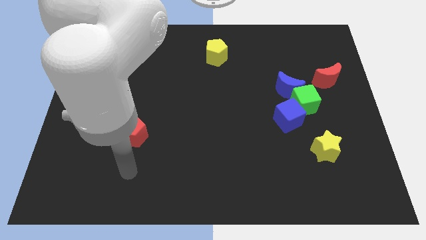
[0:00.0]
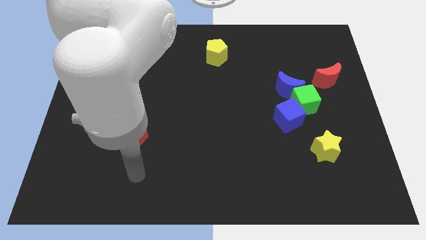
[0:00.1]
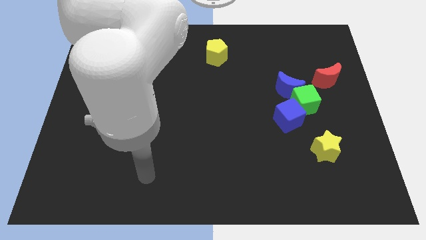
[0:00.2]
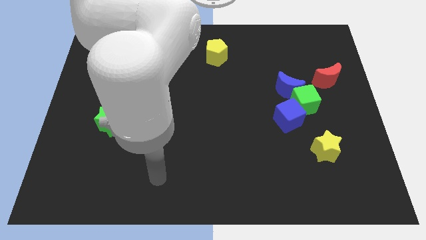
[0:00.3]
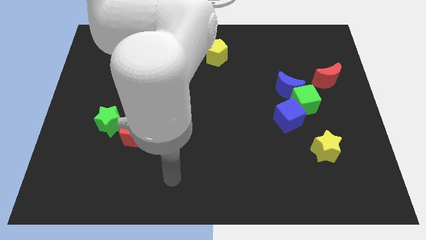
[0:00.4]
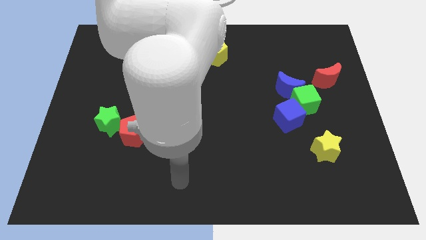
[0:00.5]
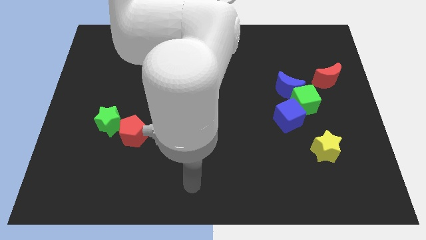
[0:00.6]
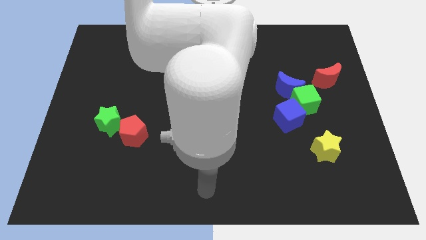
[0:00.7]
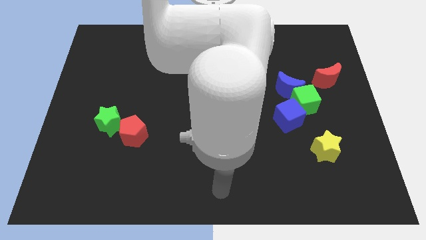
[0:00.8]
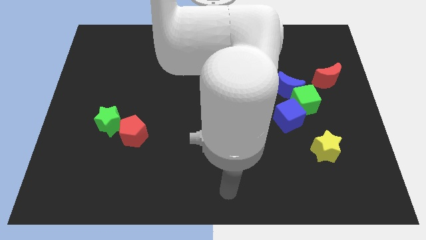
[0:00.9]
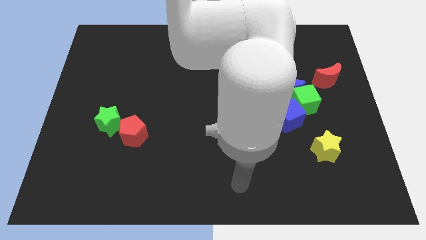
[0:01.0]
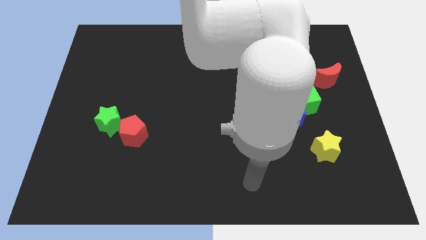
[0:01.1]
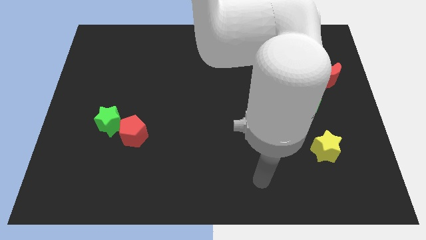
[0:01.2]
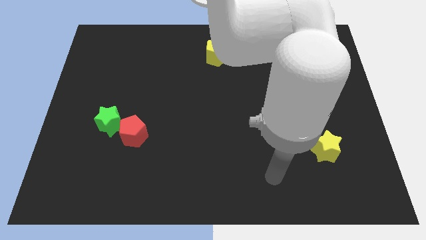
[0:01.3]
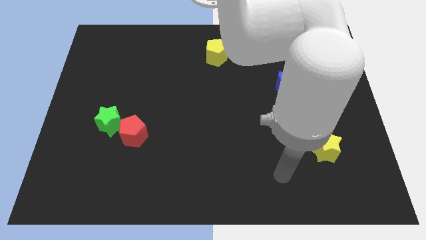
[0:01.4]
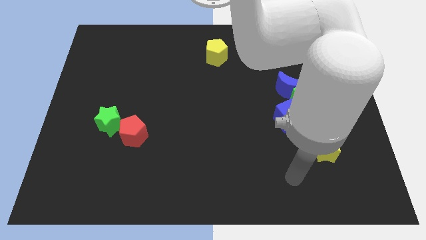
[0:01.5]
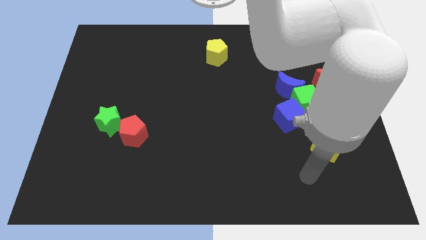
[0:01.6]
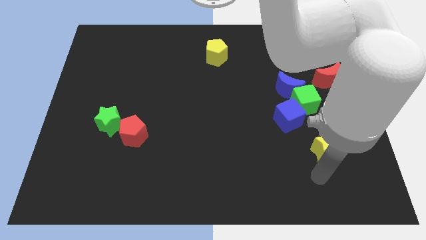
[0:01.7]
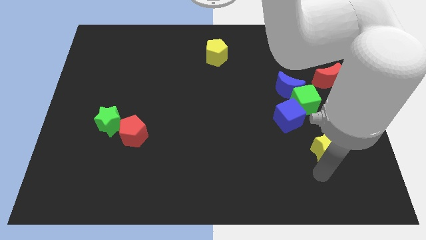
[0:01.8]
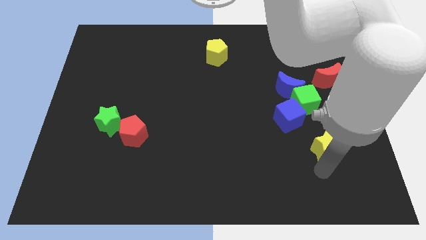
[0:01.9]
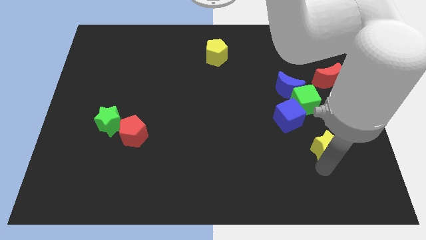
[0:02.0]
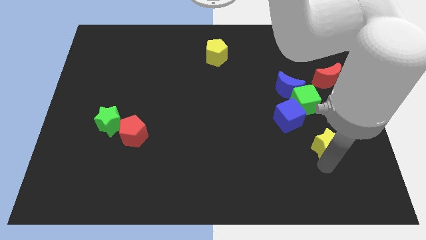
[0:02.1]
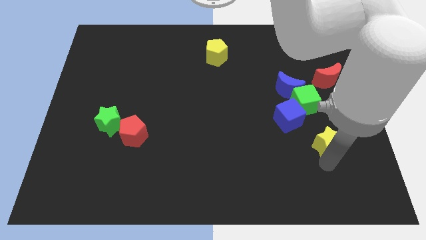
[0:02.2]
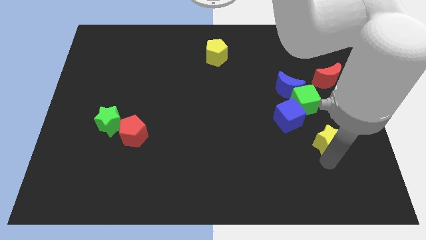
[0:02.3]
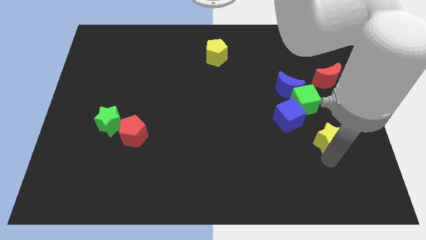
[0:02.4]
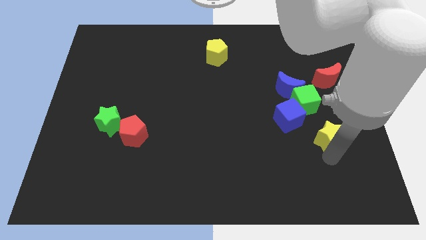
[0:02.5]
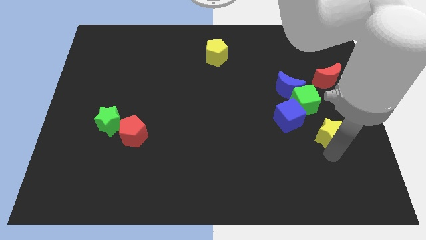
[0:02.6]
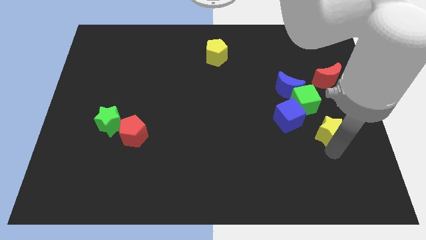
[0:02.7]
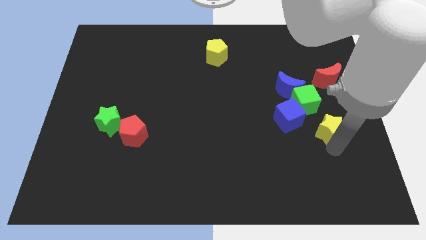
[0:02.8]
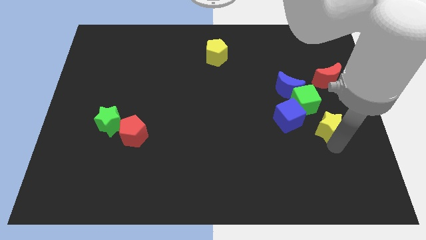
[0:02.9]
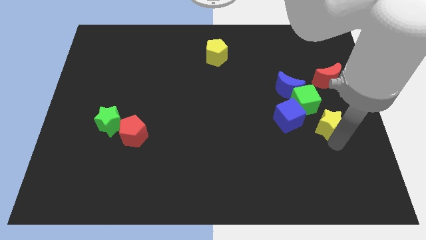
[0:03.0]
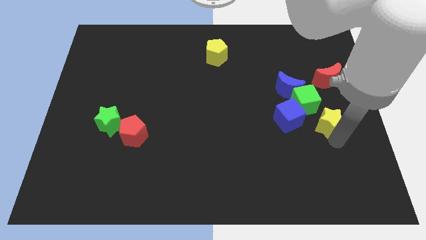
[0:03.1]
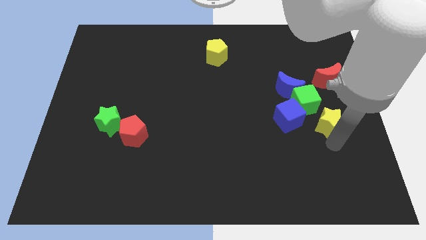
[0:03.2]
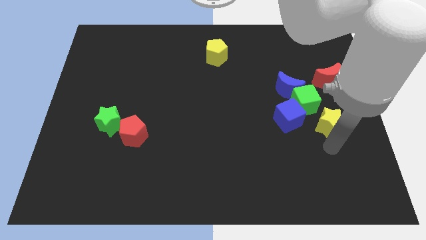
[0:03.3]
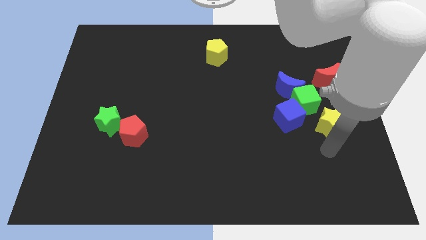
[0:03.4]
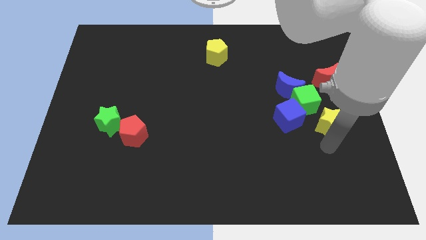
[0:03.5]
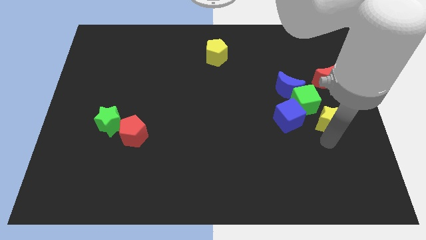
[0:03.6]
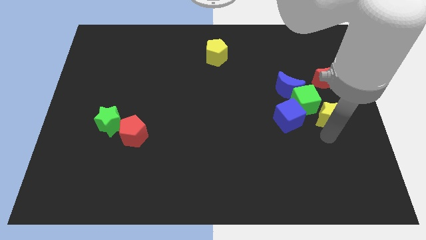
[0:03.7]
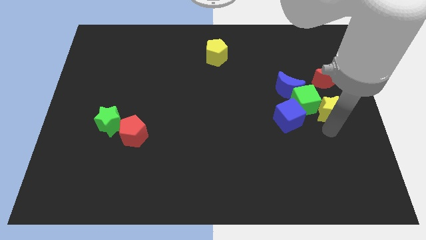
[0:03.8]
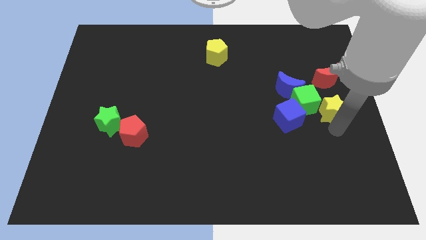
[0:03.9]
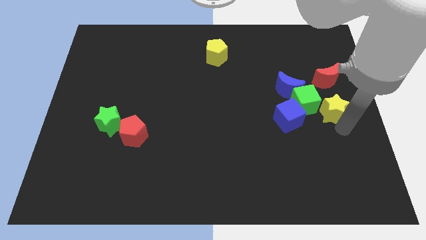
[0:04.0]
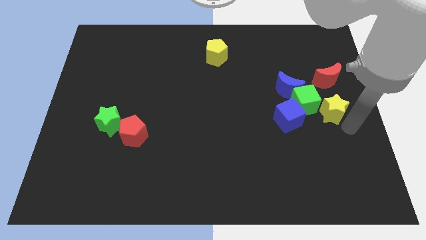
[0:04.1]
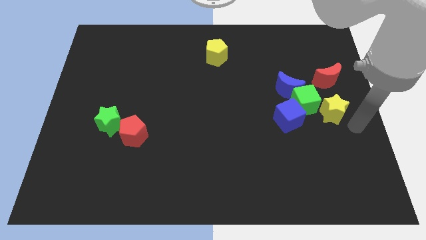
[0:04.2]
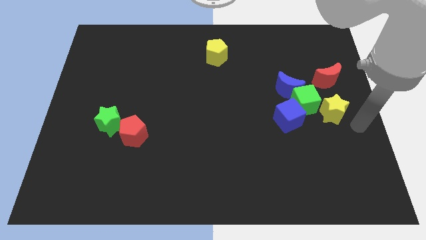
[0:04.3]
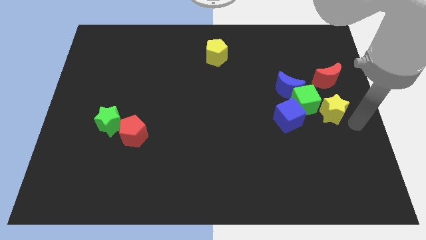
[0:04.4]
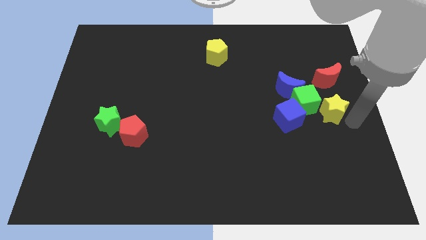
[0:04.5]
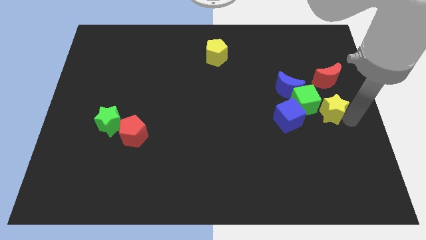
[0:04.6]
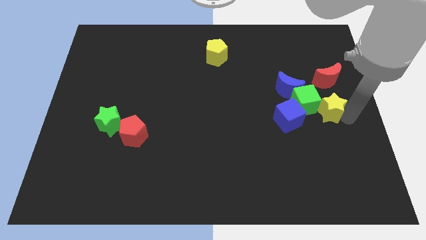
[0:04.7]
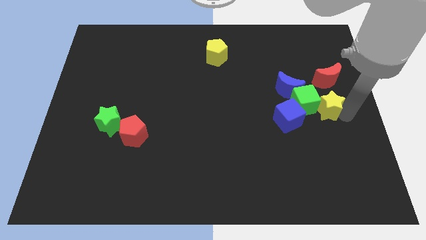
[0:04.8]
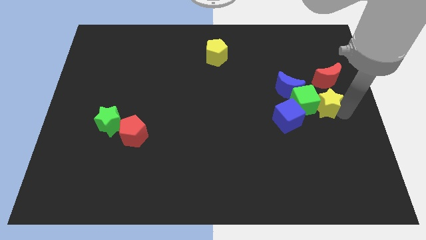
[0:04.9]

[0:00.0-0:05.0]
slide the yellow star to the top right side of the blue cube

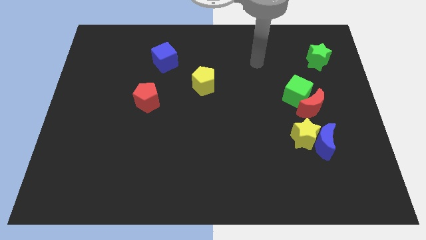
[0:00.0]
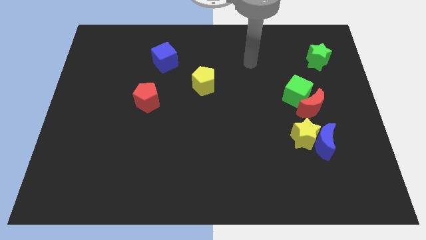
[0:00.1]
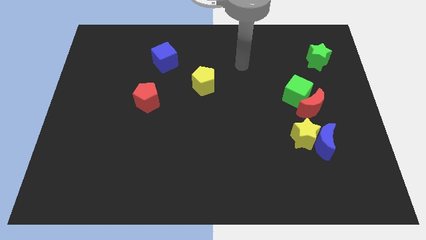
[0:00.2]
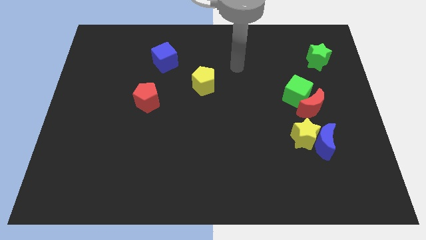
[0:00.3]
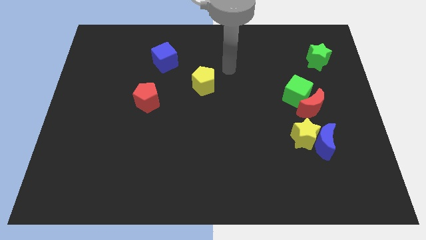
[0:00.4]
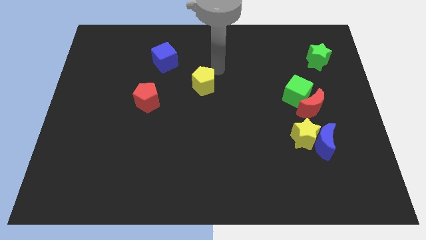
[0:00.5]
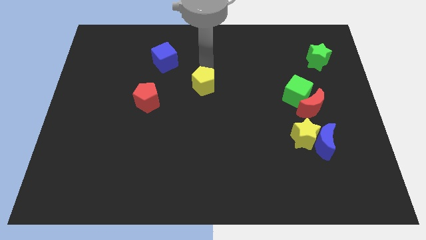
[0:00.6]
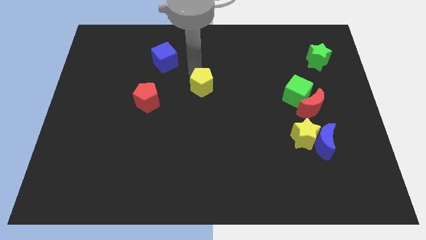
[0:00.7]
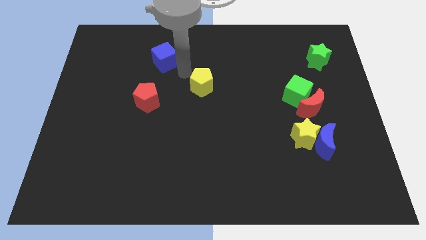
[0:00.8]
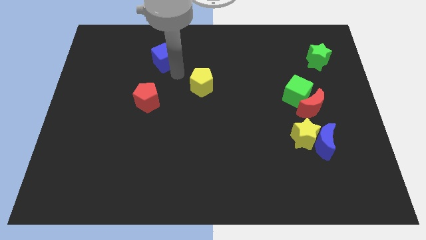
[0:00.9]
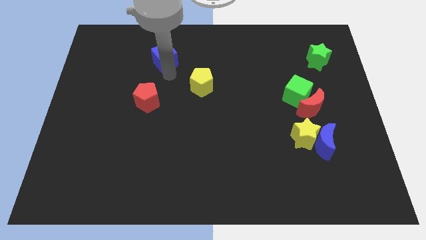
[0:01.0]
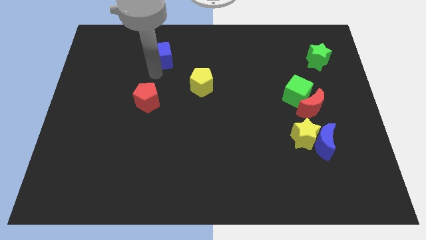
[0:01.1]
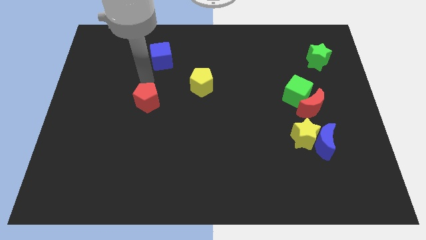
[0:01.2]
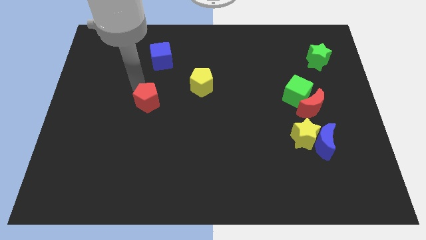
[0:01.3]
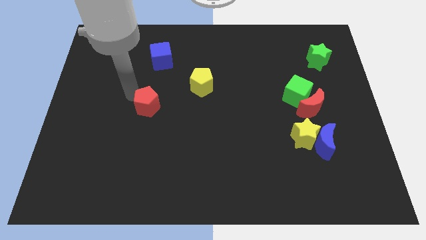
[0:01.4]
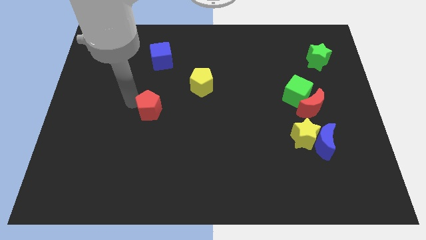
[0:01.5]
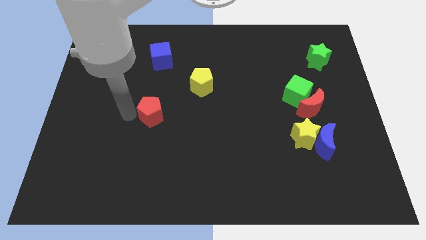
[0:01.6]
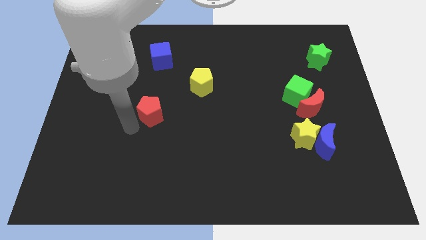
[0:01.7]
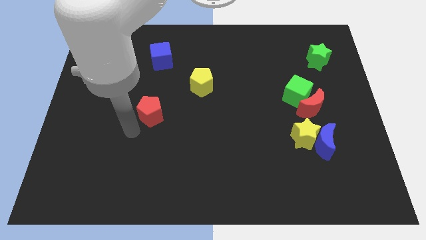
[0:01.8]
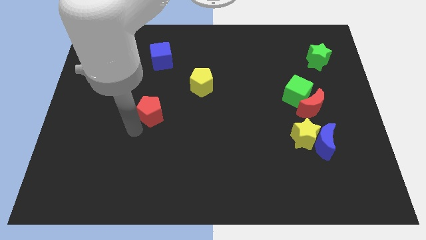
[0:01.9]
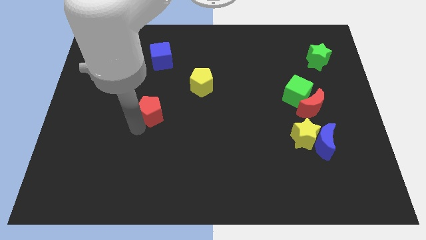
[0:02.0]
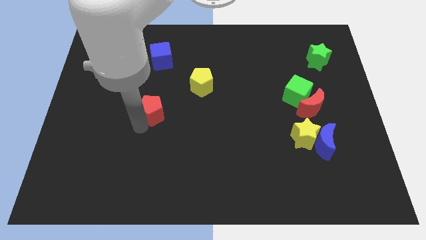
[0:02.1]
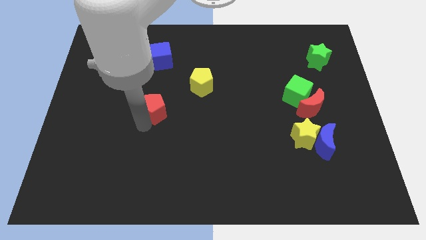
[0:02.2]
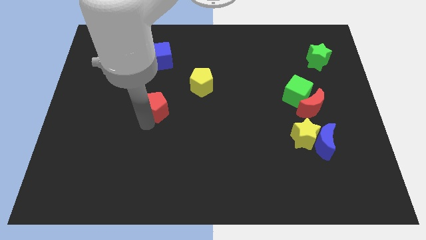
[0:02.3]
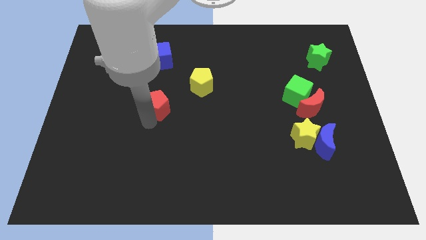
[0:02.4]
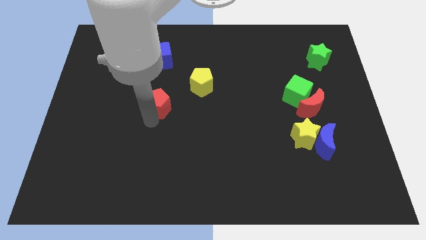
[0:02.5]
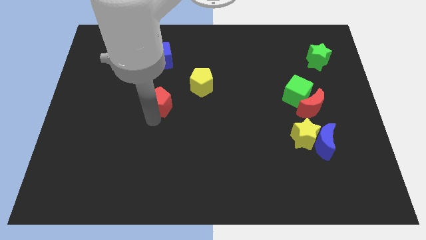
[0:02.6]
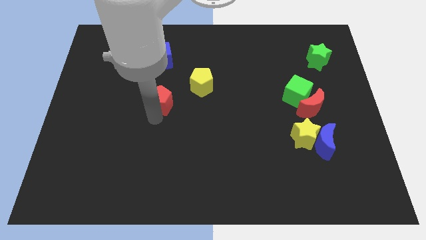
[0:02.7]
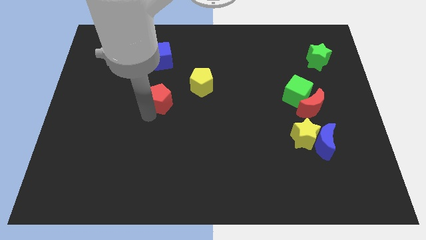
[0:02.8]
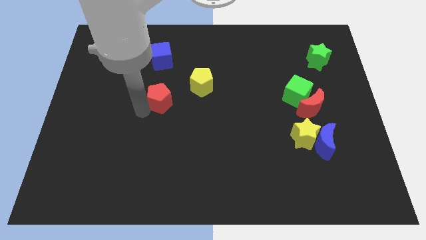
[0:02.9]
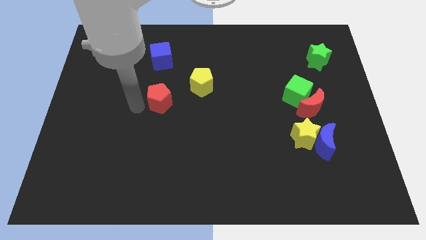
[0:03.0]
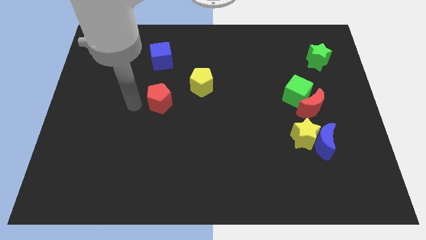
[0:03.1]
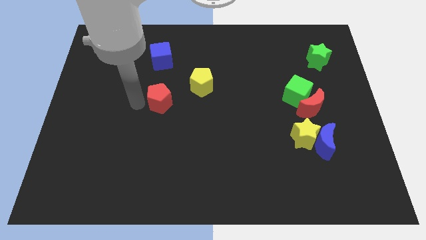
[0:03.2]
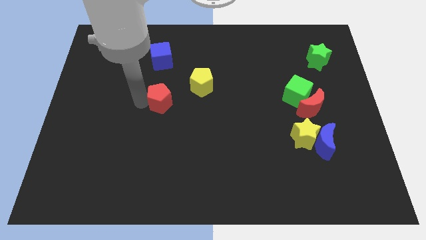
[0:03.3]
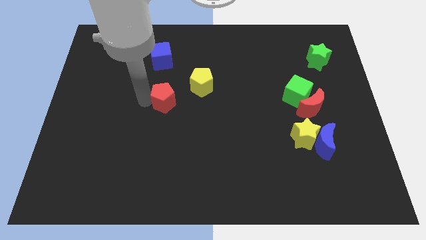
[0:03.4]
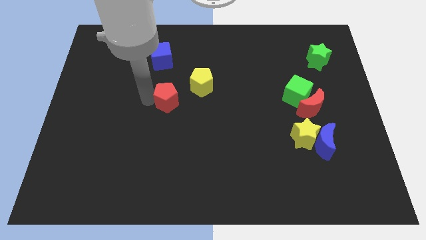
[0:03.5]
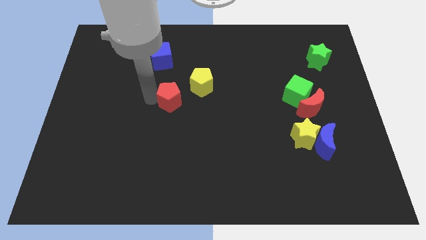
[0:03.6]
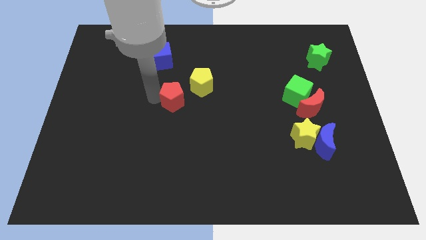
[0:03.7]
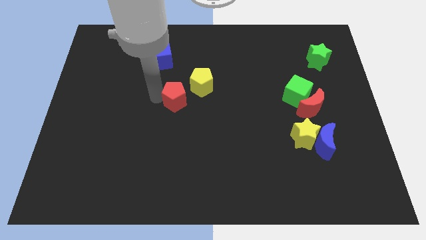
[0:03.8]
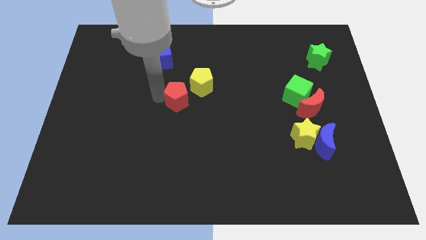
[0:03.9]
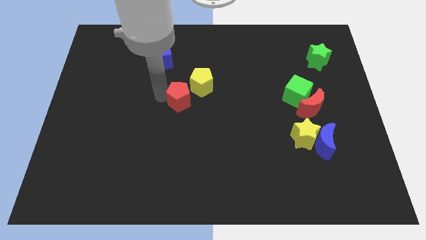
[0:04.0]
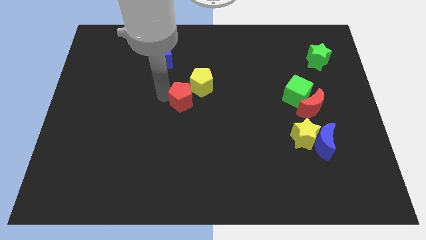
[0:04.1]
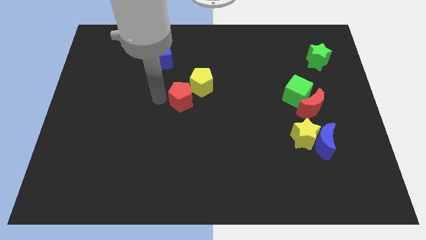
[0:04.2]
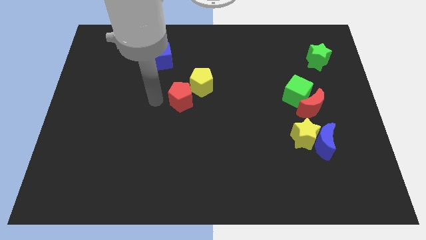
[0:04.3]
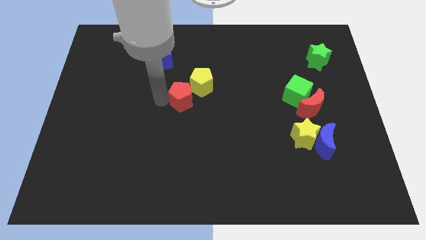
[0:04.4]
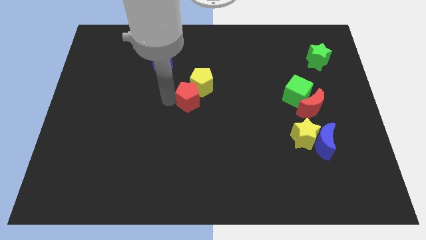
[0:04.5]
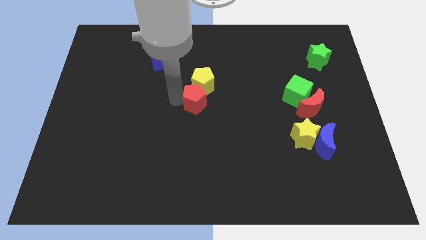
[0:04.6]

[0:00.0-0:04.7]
push the red pentagon to the bottom right of the yellow pentagon
